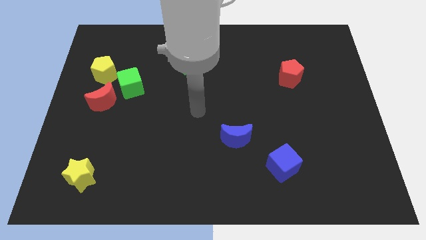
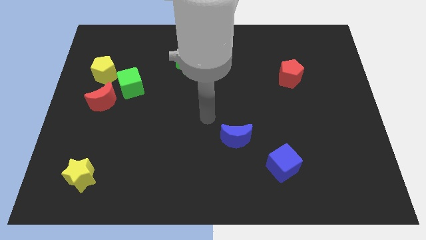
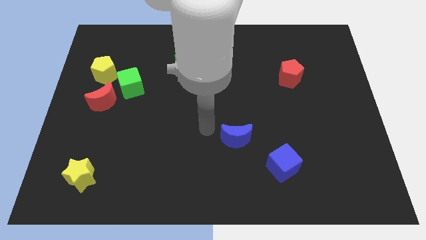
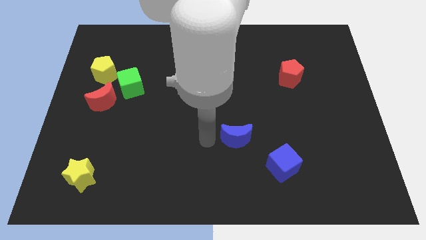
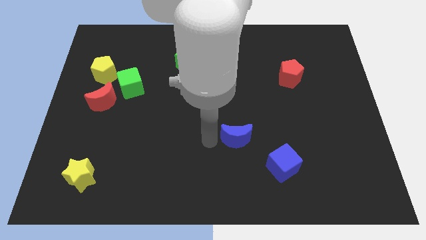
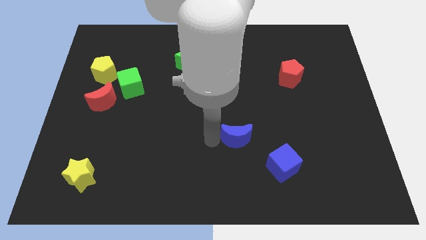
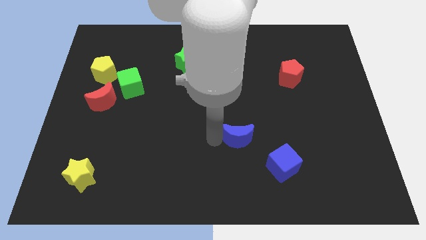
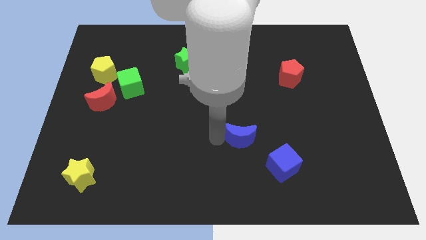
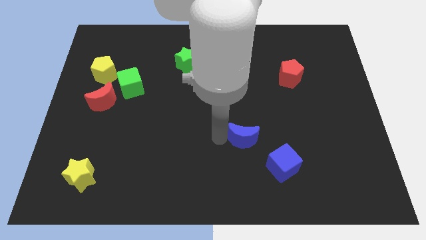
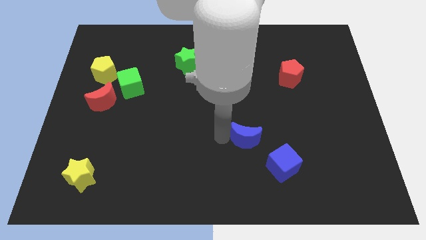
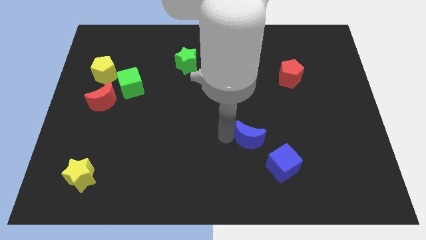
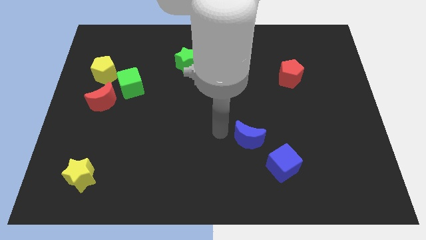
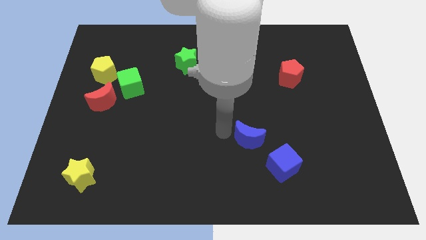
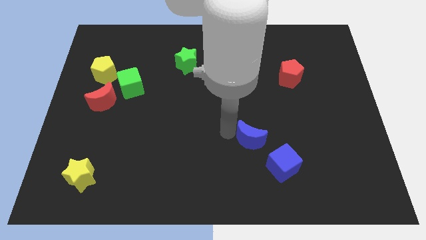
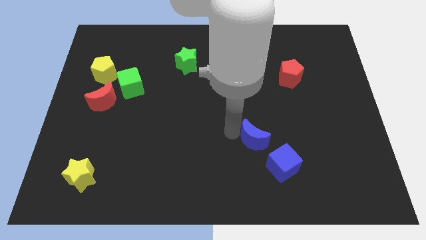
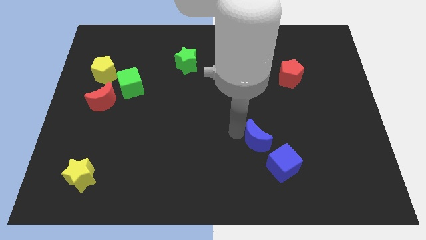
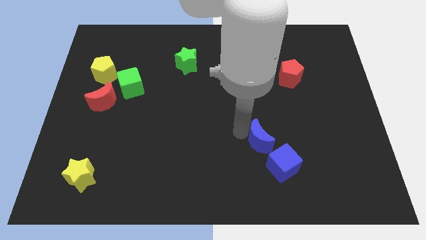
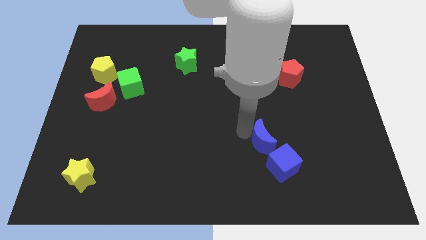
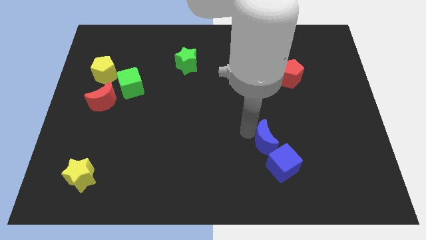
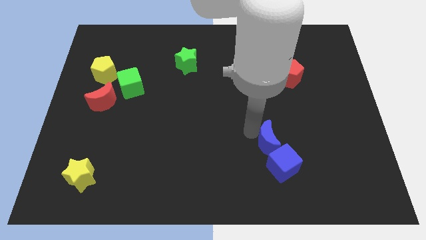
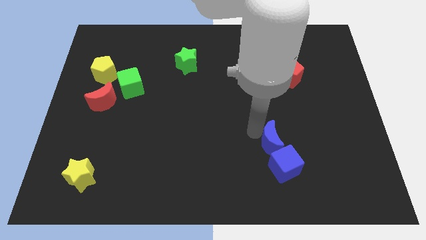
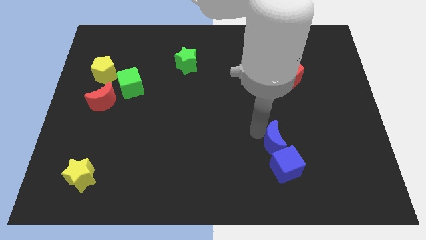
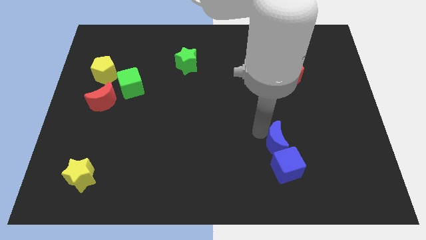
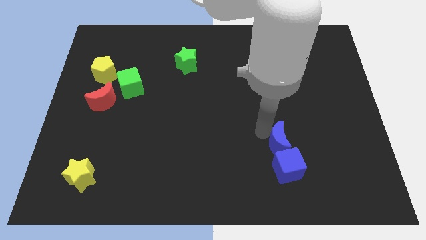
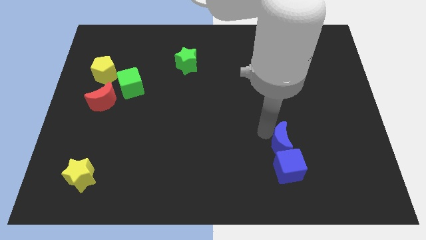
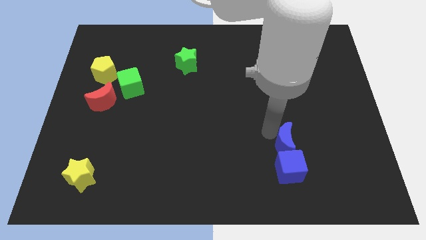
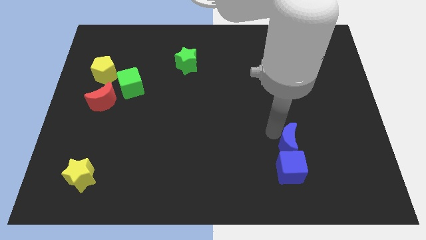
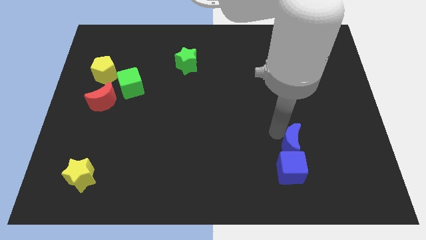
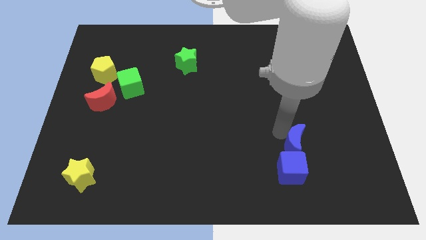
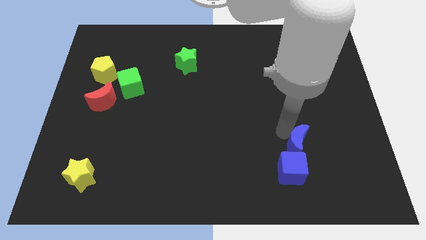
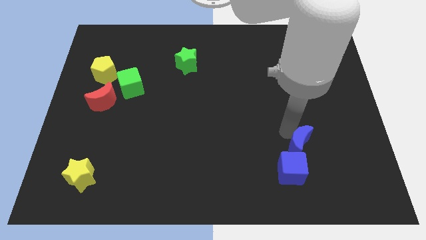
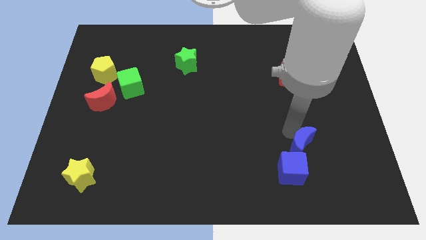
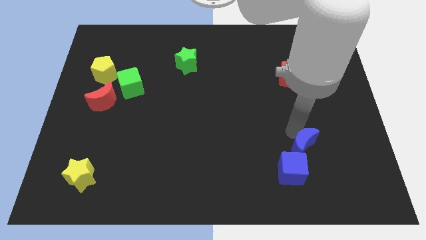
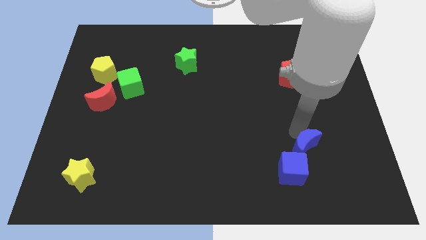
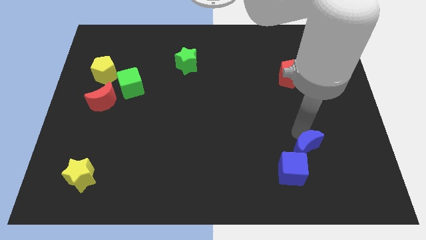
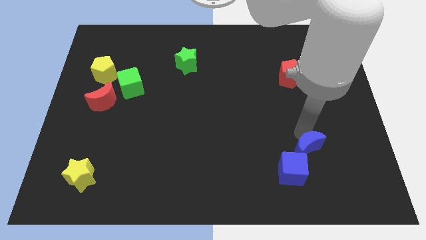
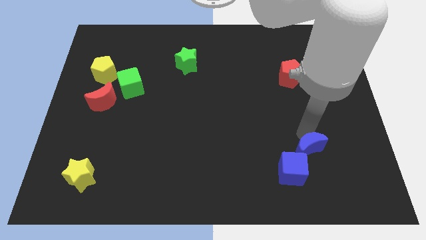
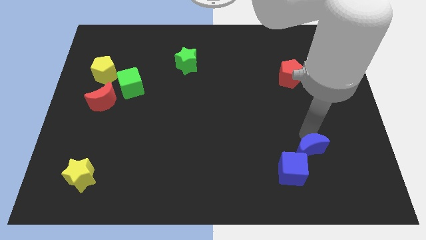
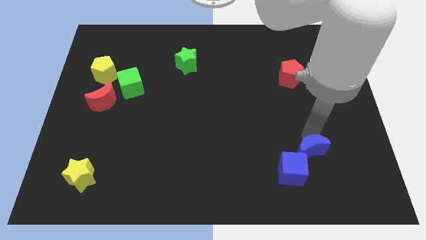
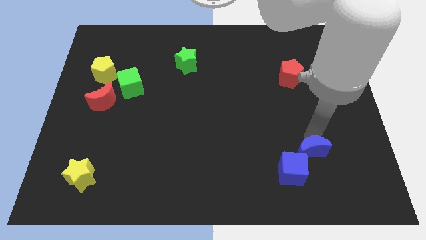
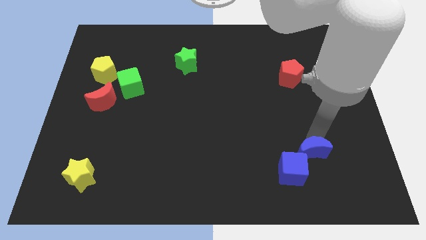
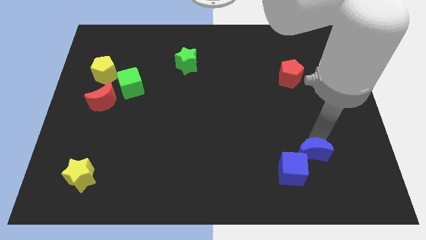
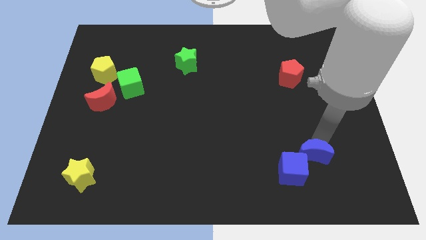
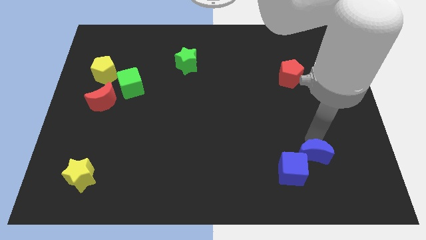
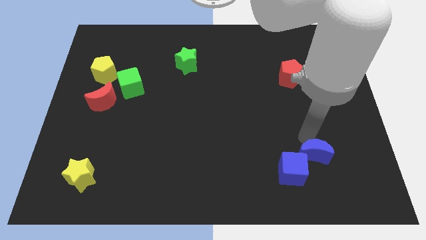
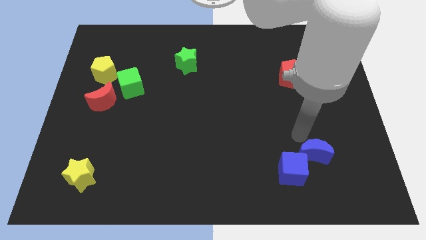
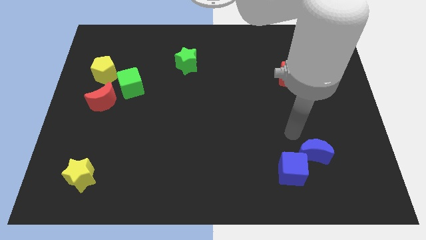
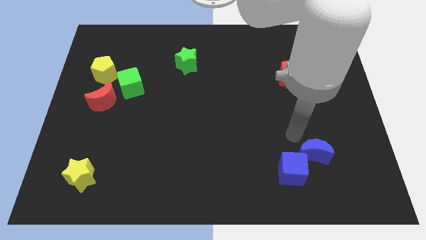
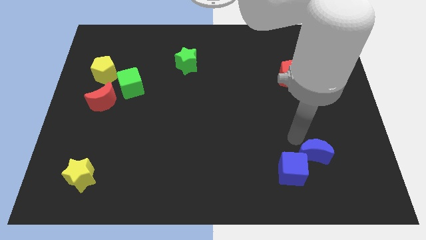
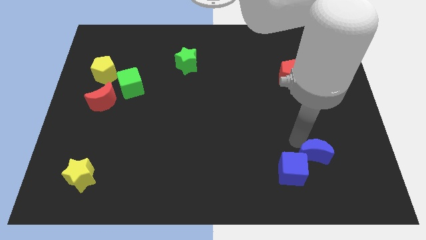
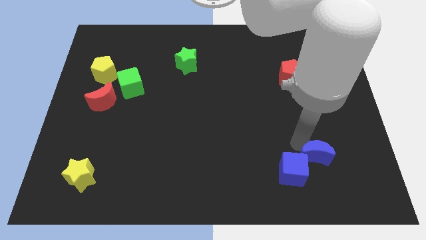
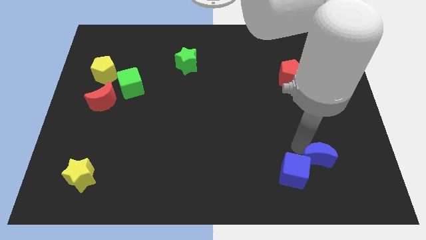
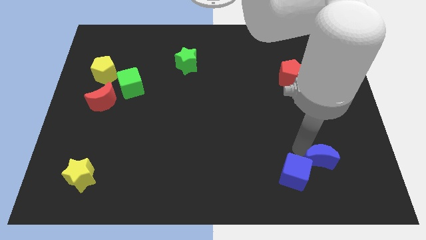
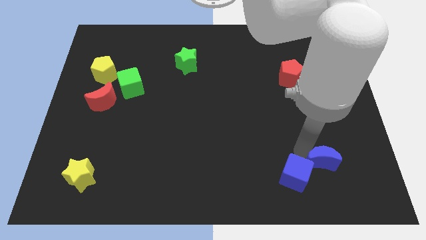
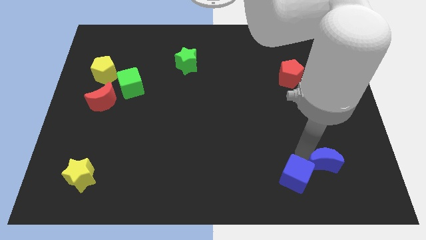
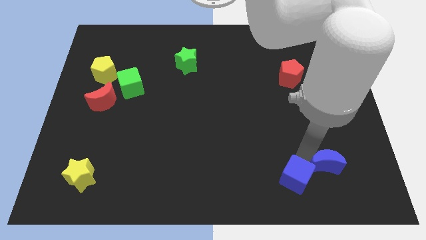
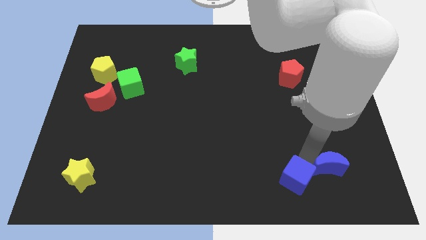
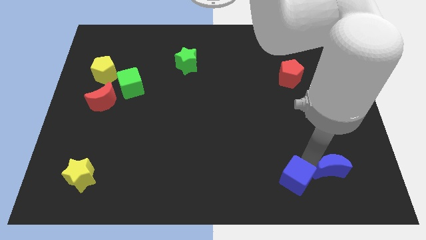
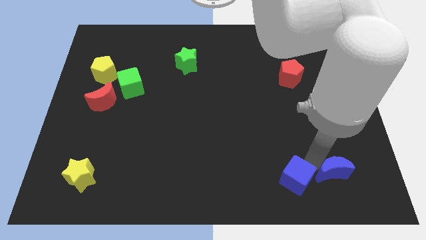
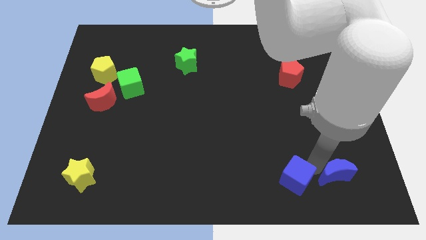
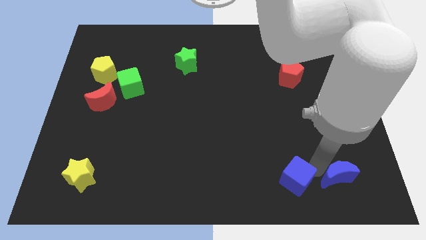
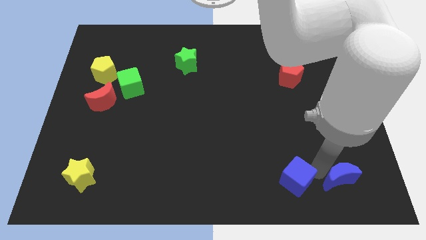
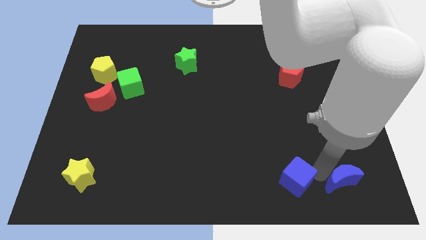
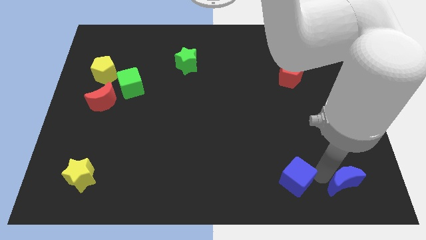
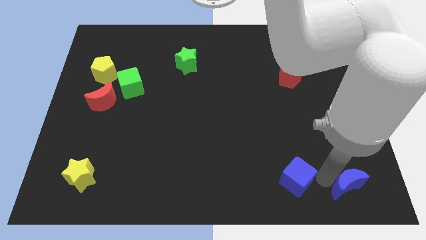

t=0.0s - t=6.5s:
push the blue moon to the bottom right corner
